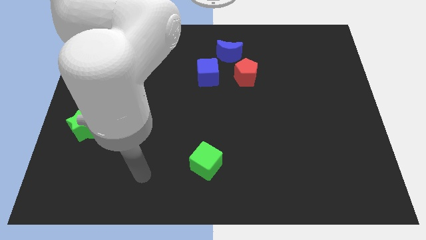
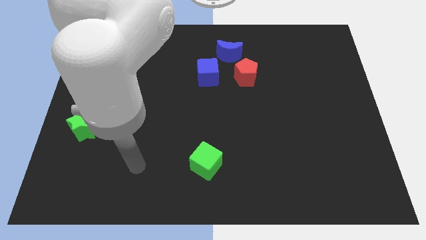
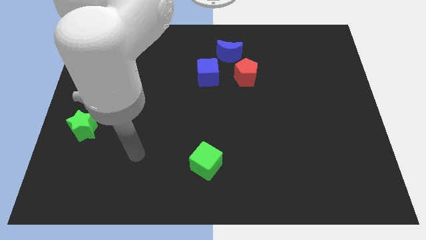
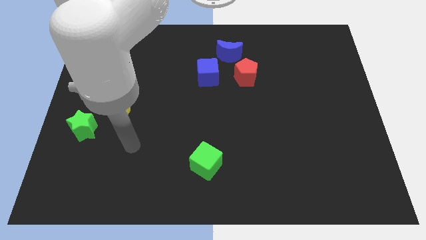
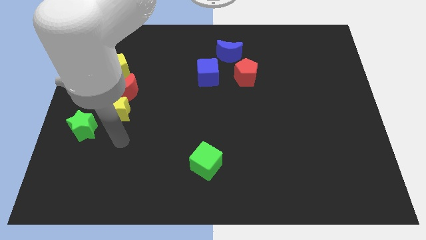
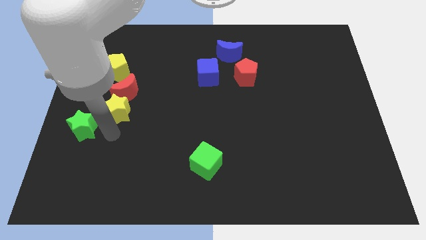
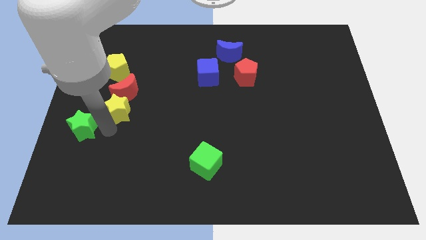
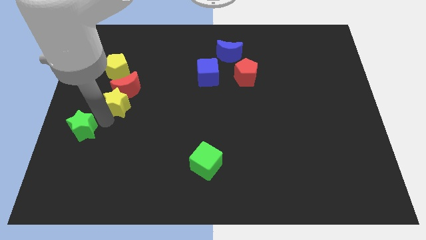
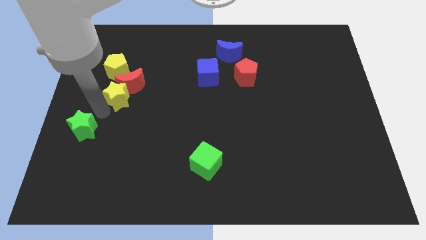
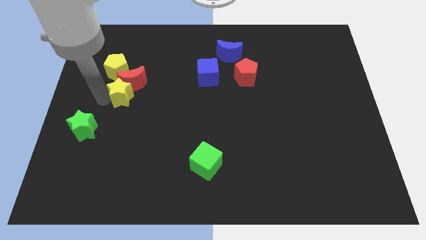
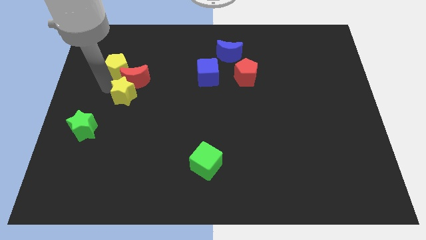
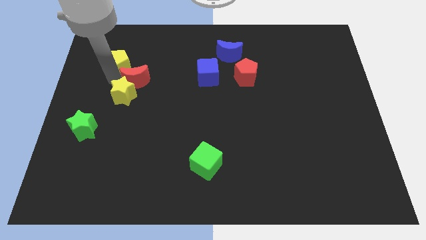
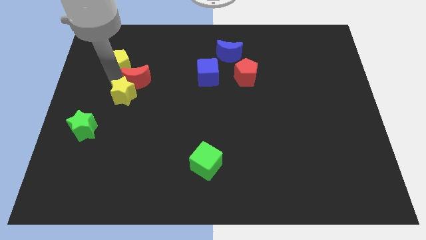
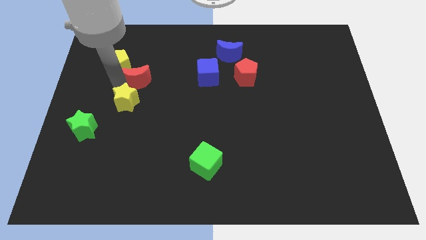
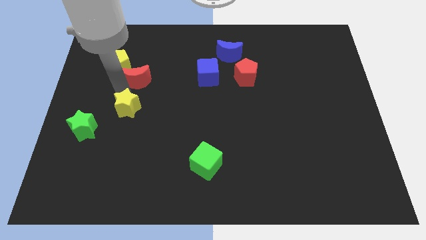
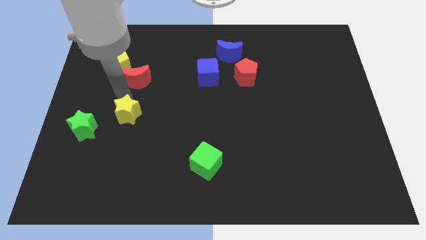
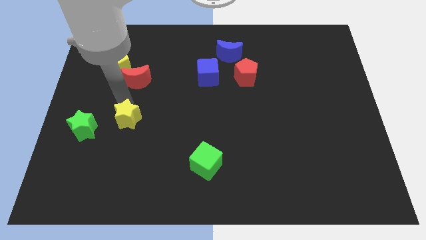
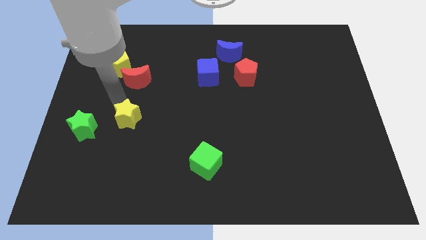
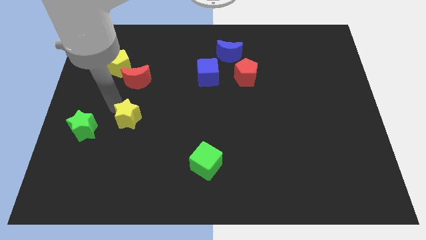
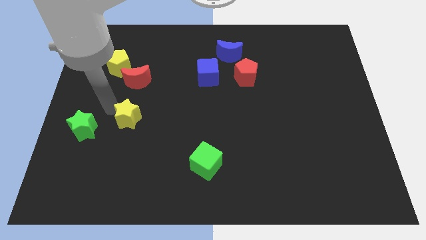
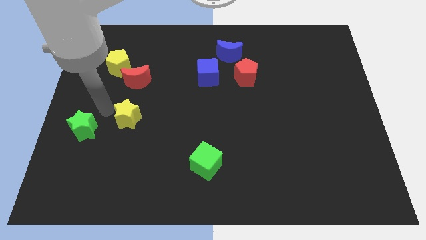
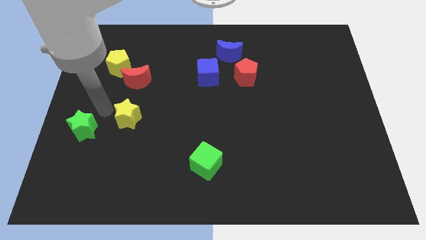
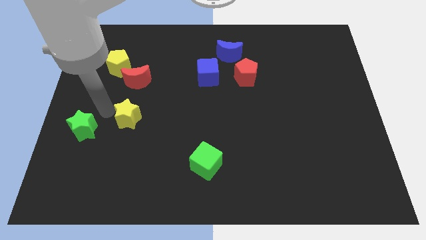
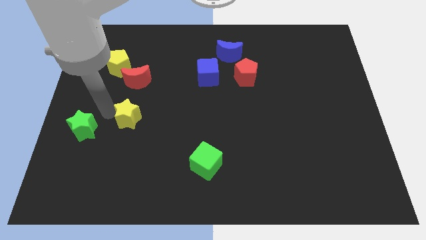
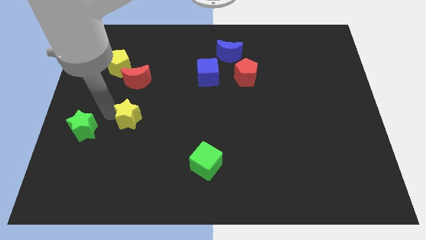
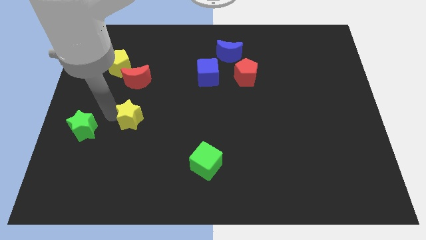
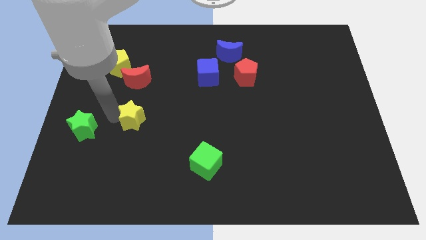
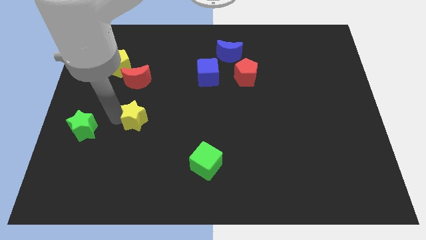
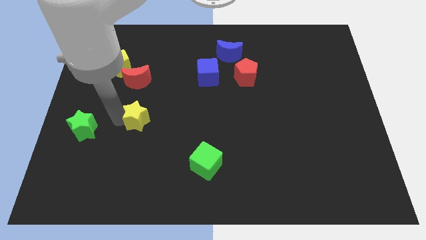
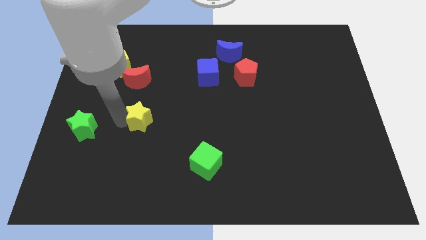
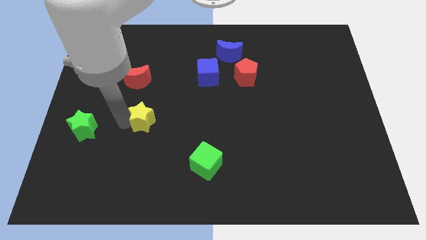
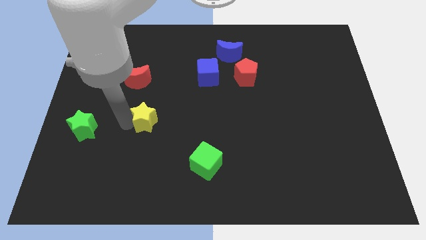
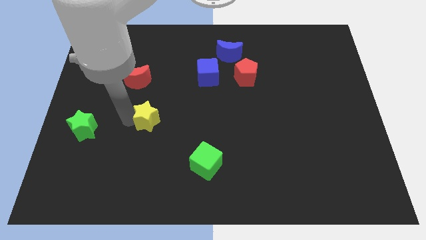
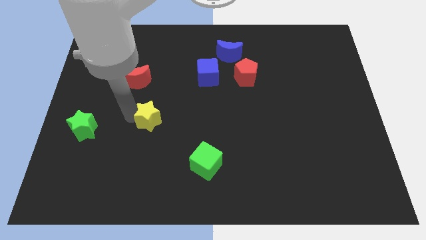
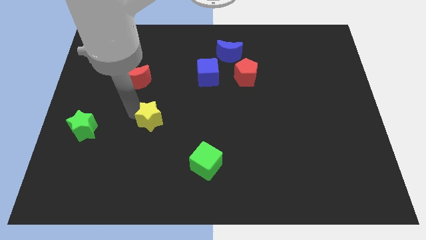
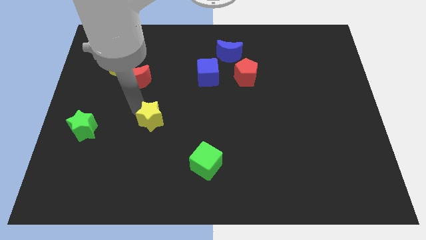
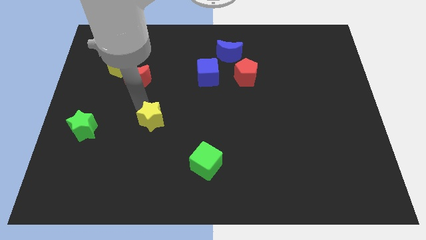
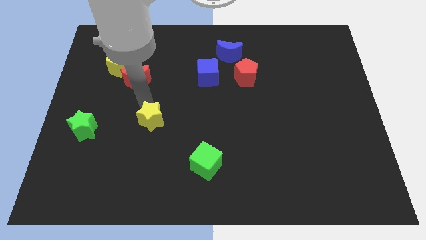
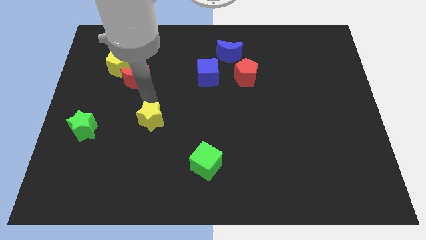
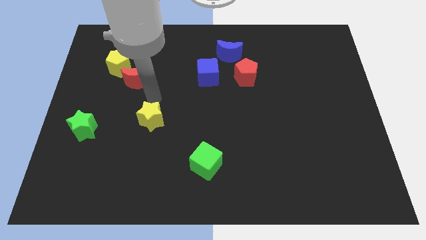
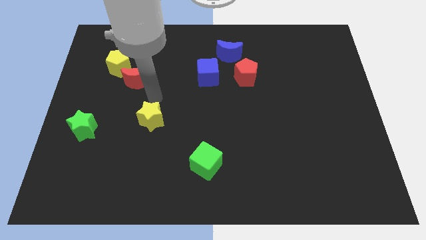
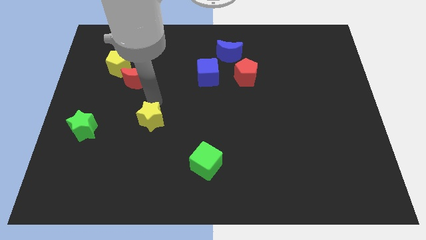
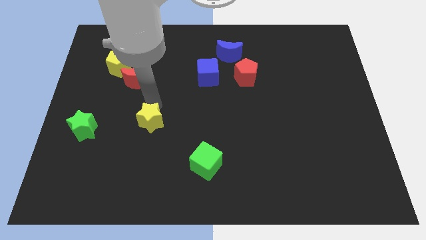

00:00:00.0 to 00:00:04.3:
slide the yellow star down and to the right a bit

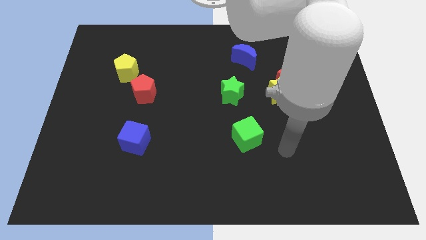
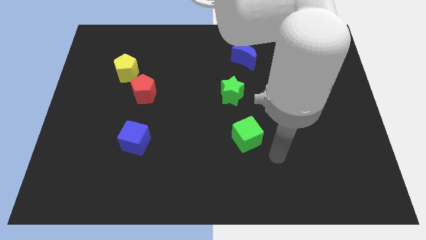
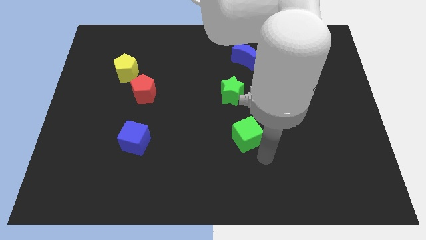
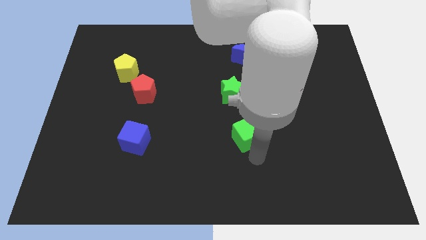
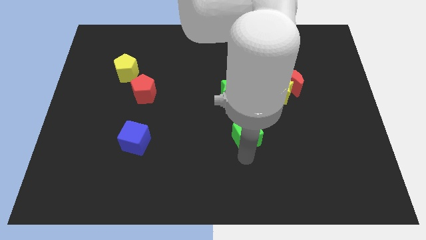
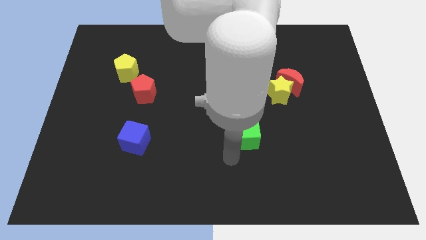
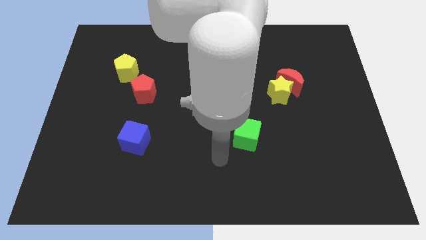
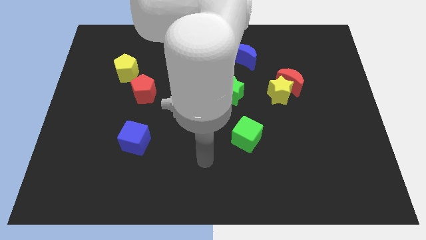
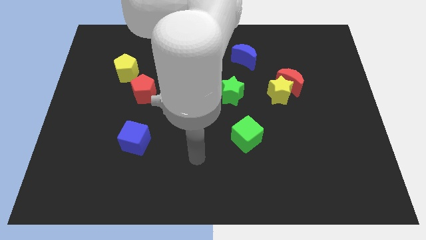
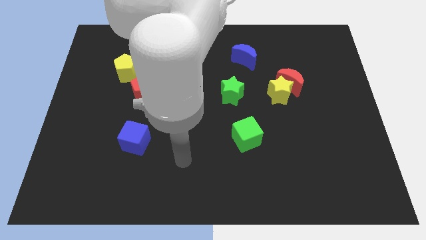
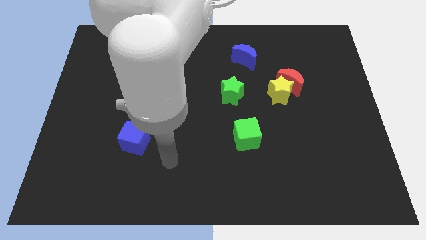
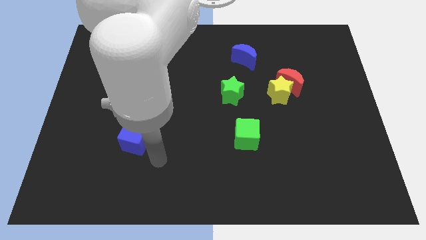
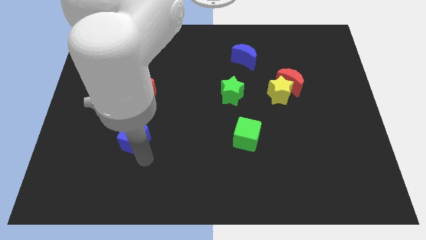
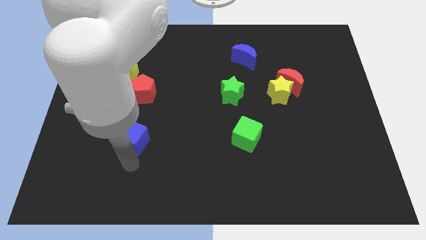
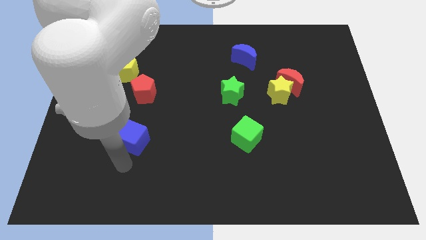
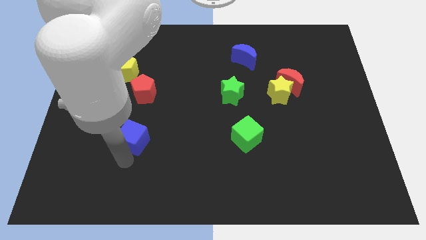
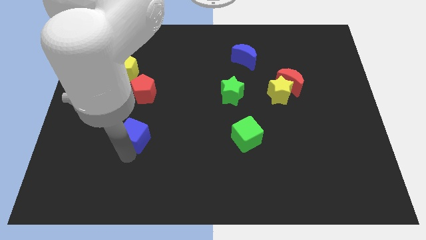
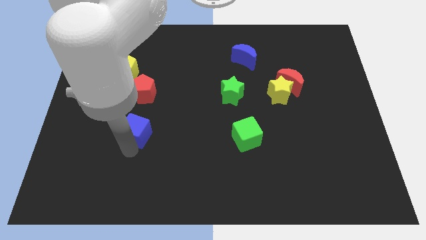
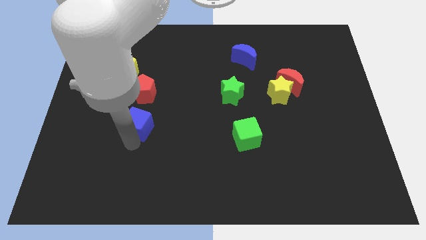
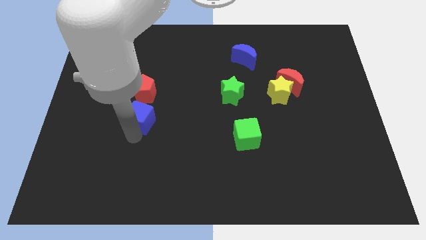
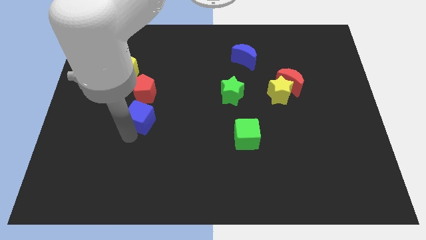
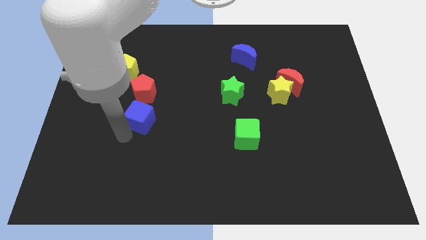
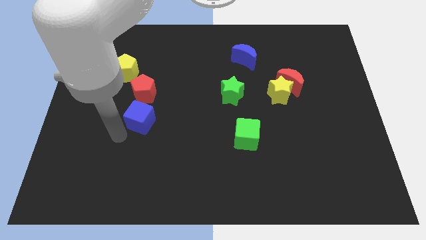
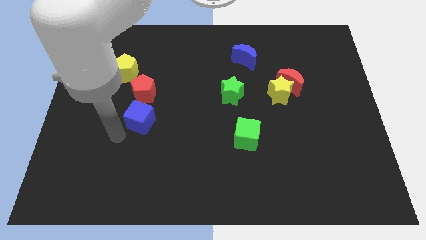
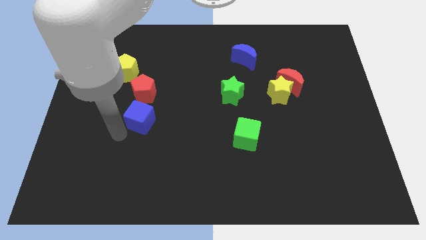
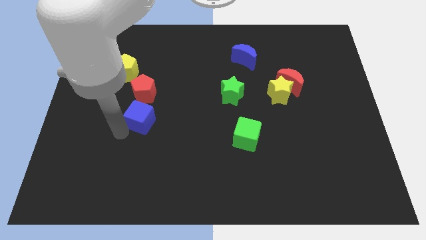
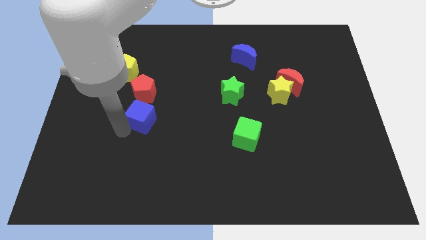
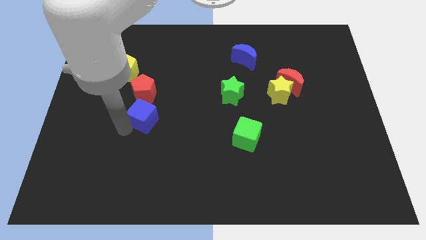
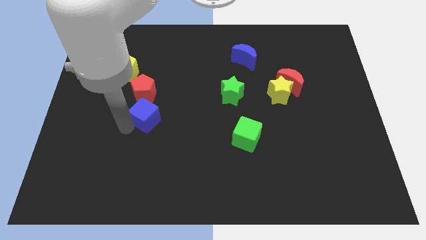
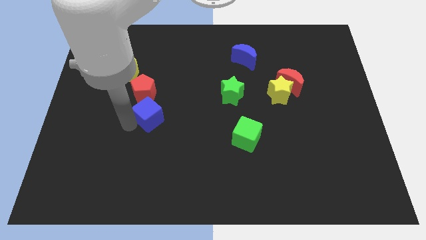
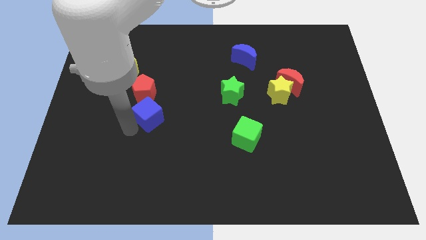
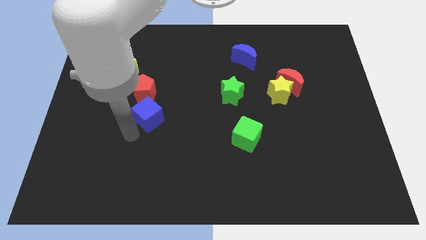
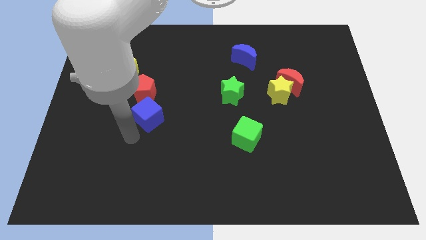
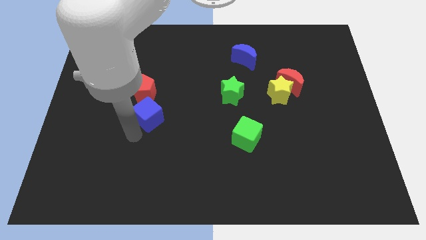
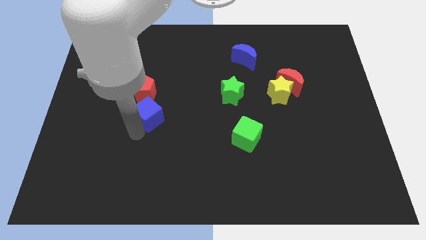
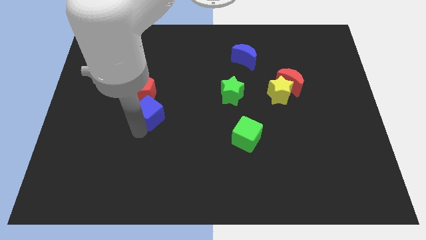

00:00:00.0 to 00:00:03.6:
slightly slide the blue cube up

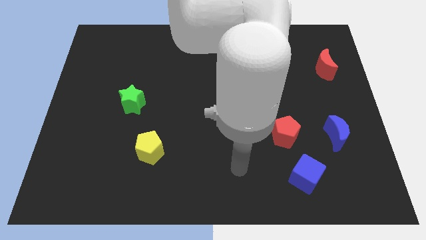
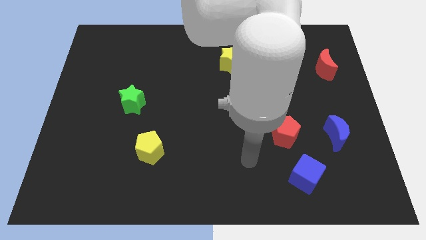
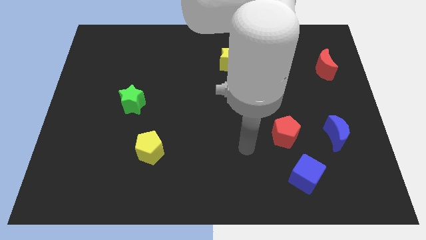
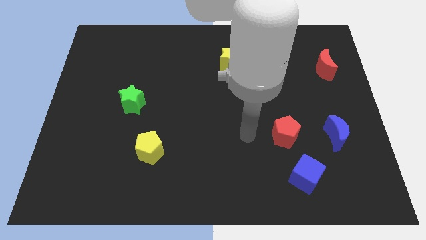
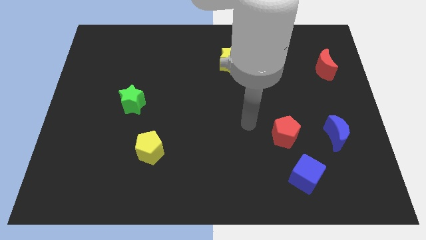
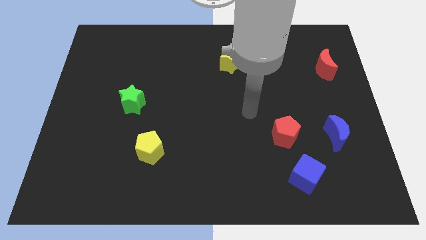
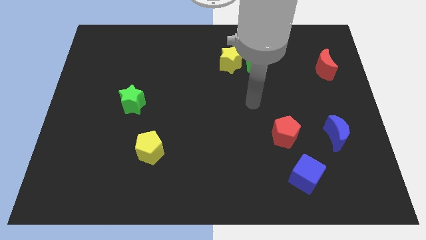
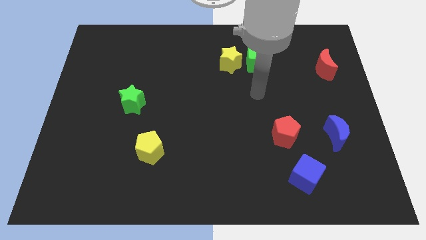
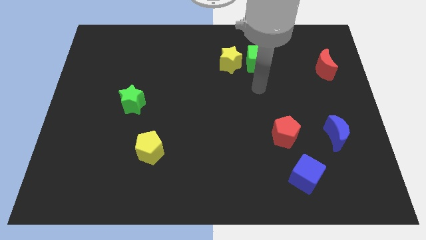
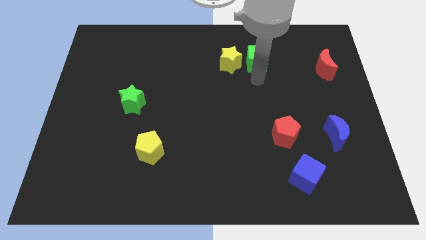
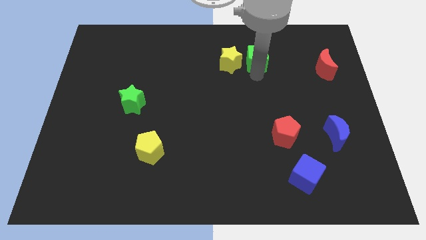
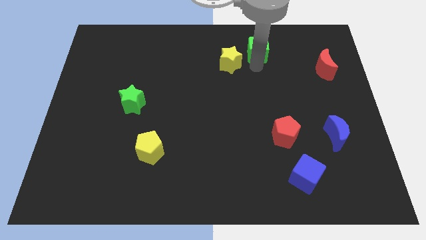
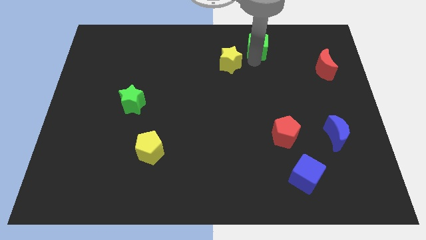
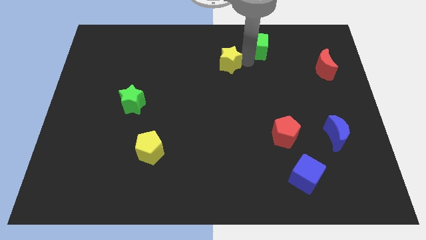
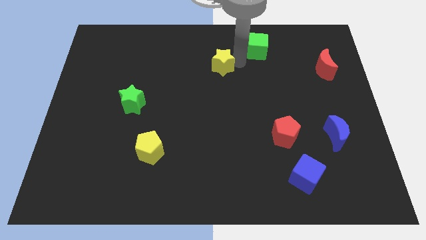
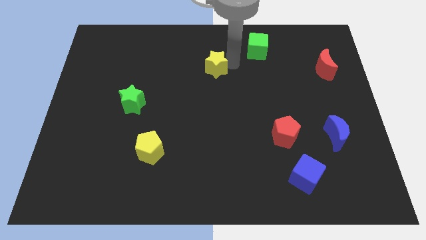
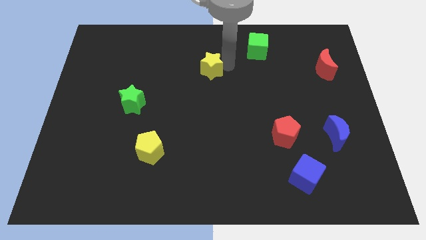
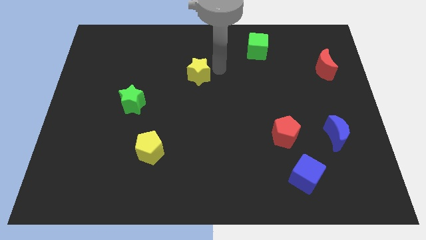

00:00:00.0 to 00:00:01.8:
push the yellow star to the left a little
